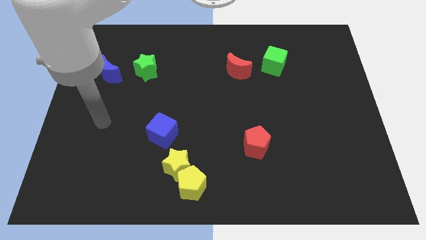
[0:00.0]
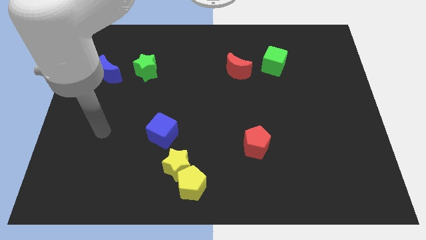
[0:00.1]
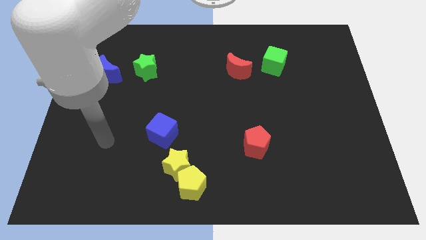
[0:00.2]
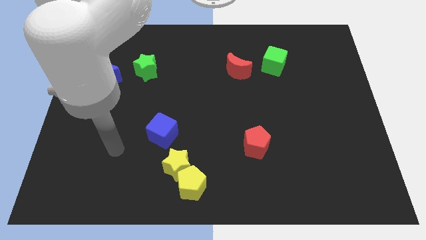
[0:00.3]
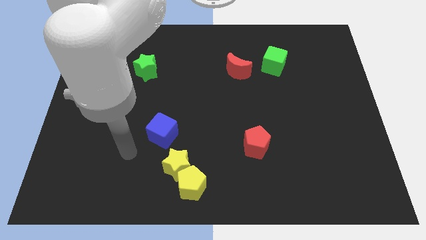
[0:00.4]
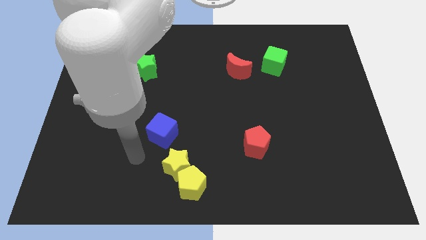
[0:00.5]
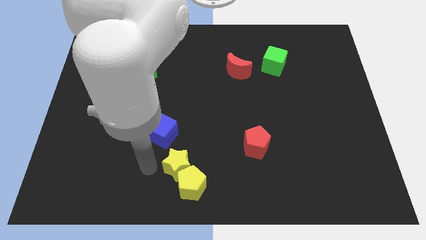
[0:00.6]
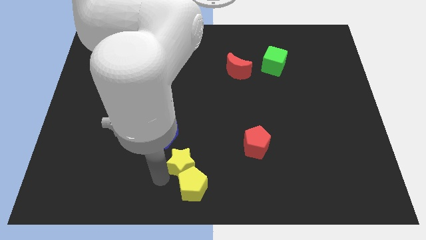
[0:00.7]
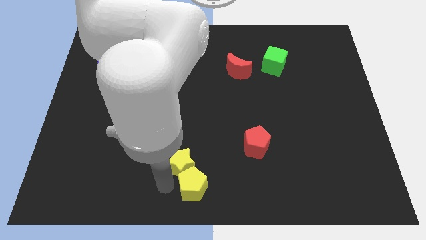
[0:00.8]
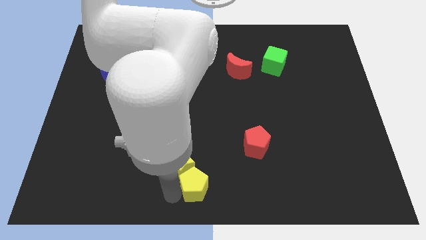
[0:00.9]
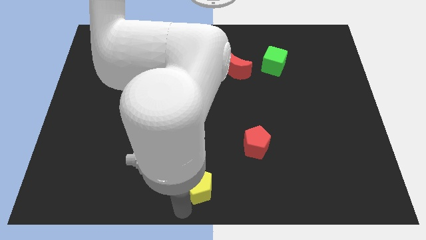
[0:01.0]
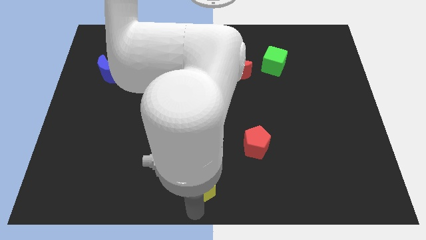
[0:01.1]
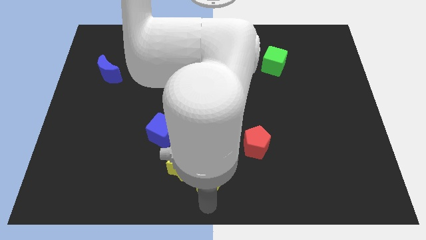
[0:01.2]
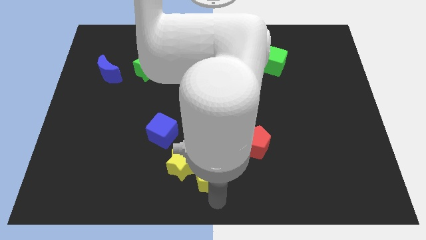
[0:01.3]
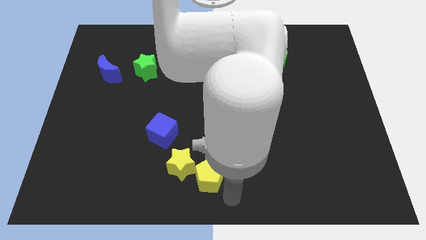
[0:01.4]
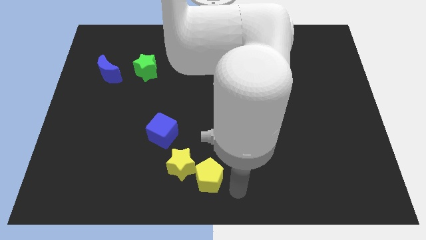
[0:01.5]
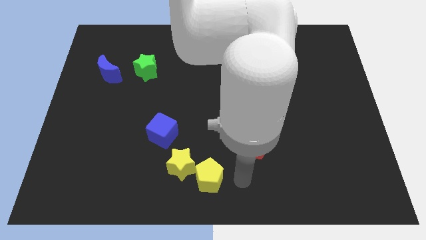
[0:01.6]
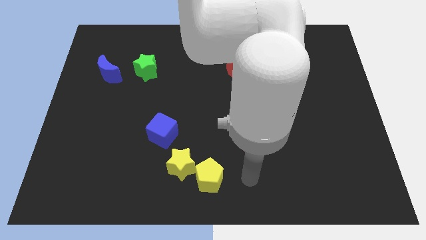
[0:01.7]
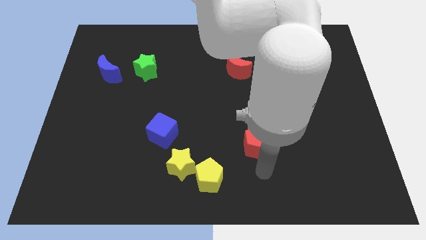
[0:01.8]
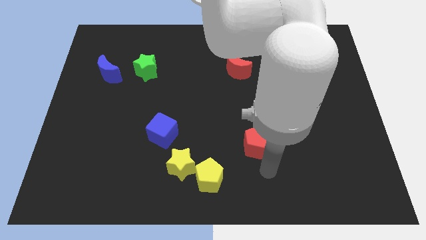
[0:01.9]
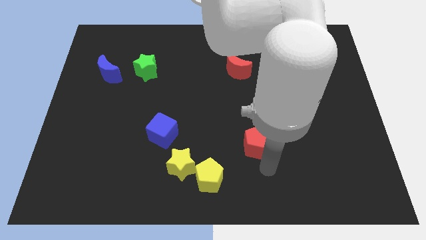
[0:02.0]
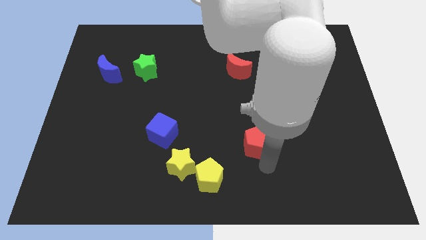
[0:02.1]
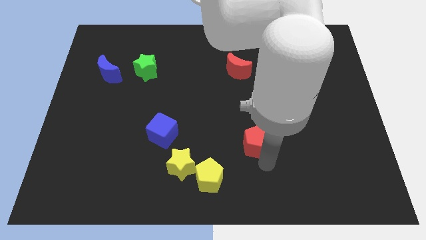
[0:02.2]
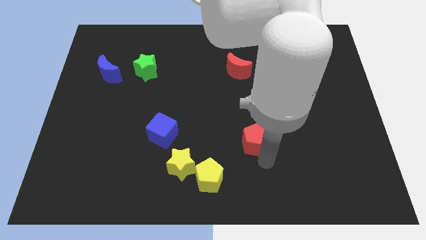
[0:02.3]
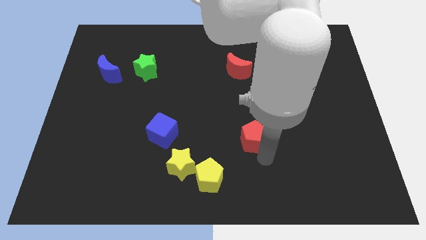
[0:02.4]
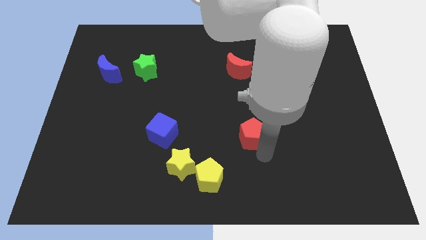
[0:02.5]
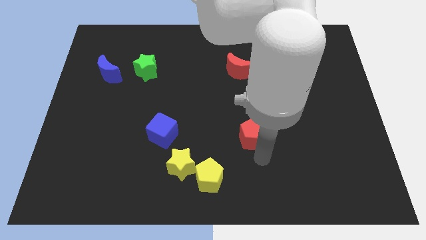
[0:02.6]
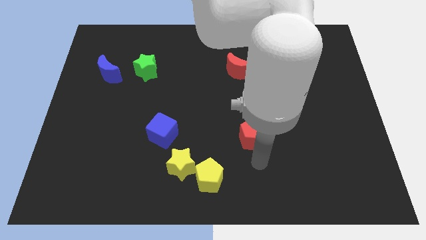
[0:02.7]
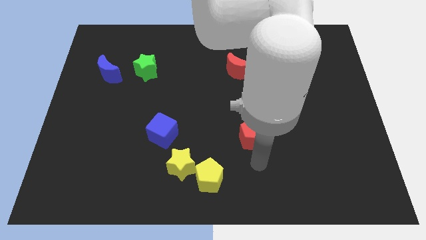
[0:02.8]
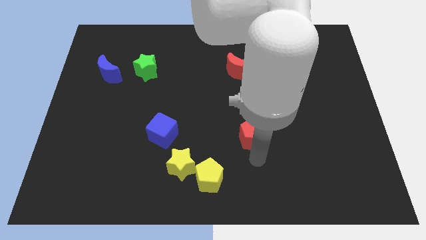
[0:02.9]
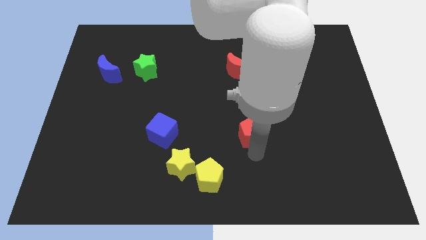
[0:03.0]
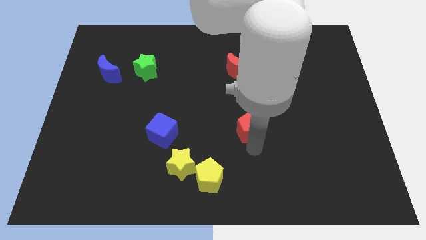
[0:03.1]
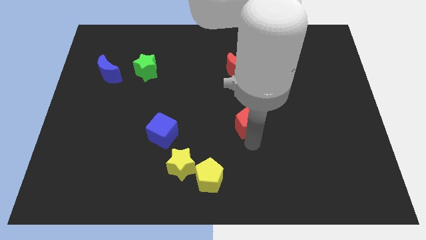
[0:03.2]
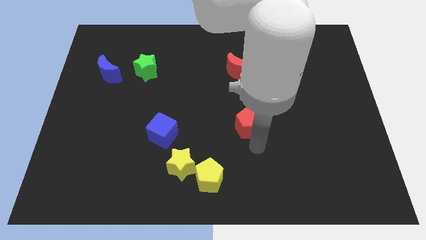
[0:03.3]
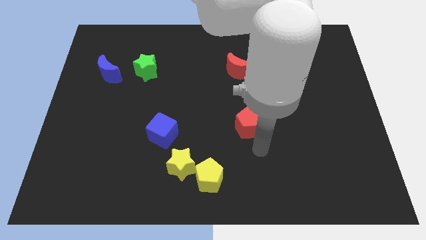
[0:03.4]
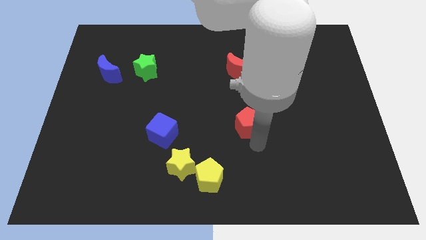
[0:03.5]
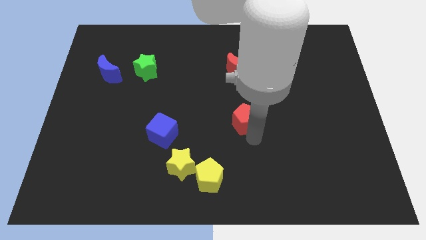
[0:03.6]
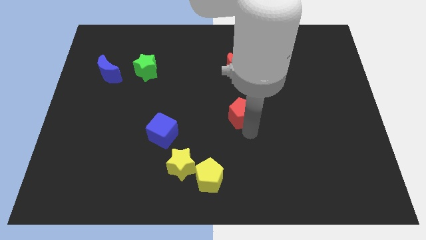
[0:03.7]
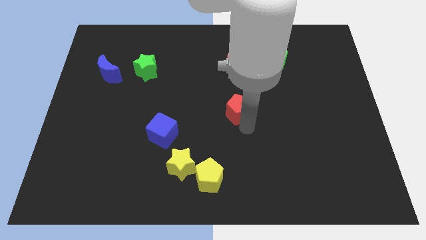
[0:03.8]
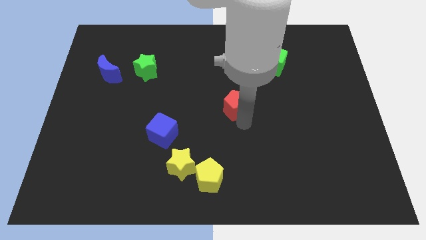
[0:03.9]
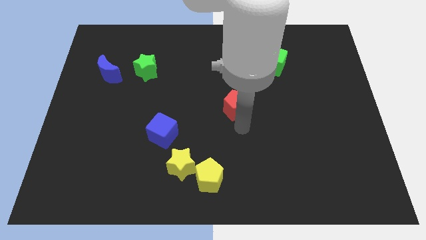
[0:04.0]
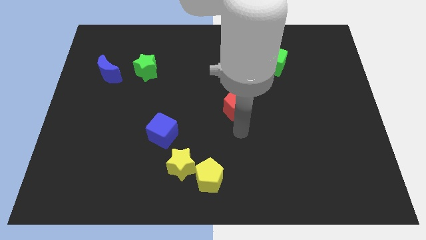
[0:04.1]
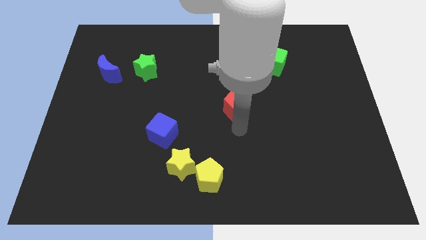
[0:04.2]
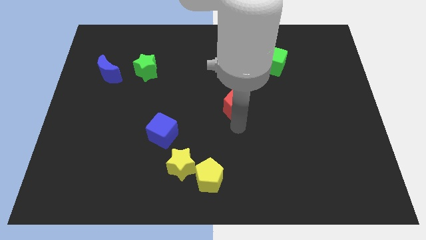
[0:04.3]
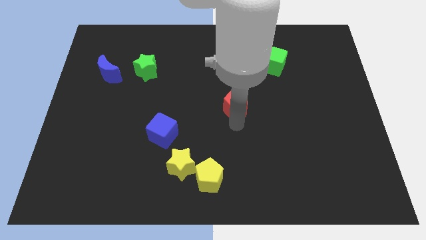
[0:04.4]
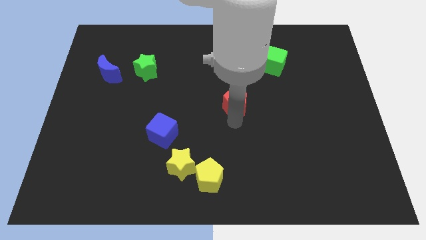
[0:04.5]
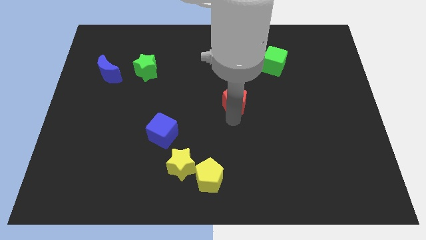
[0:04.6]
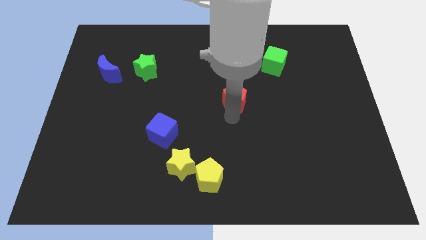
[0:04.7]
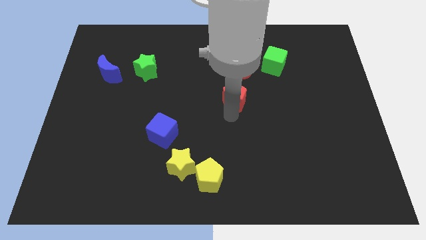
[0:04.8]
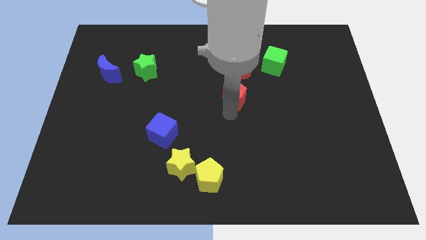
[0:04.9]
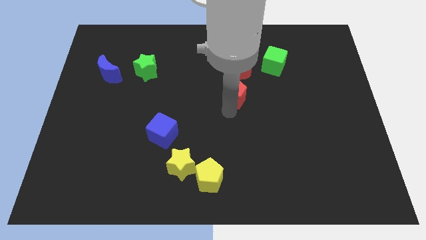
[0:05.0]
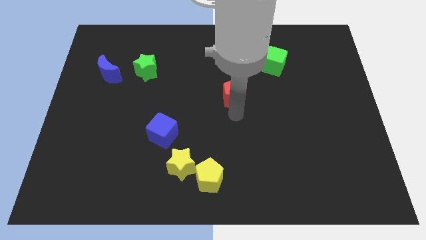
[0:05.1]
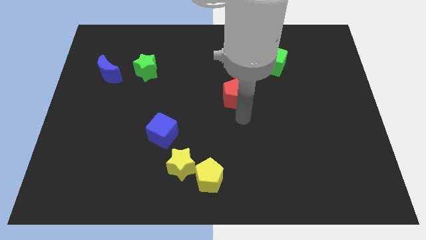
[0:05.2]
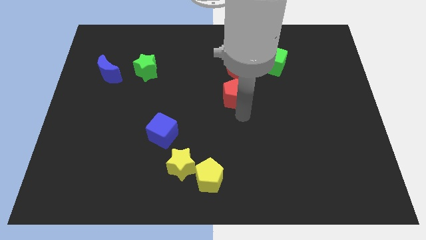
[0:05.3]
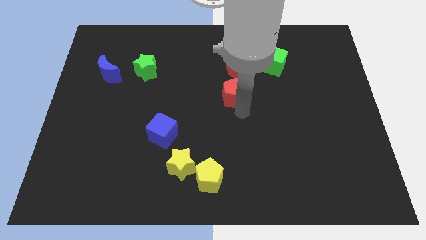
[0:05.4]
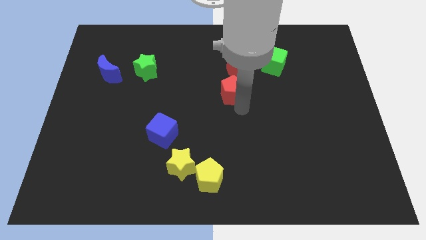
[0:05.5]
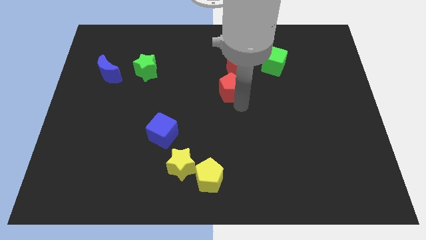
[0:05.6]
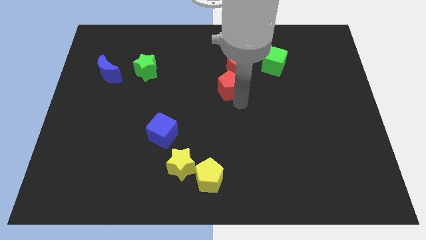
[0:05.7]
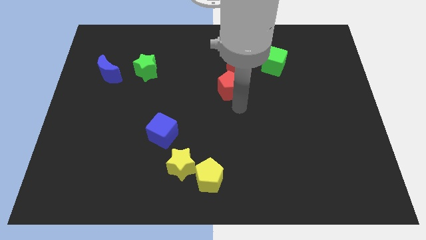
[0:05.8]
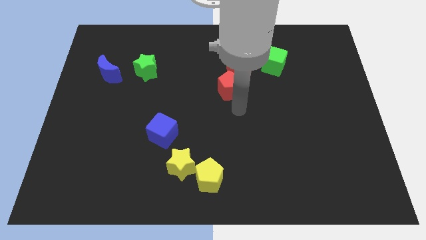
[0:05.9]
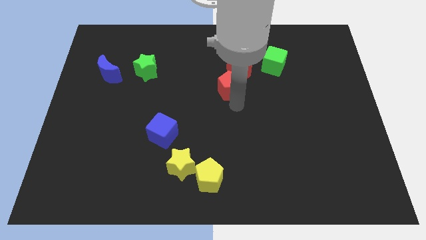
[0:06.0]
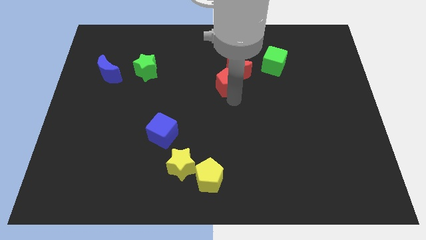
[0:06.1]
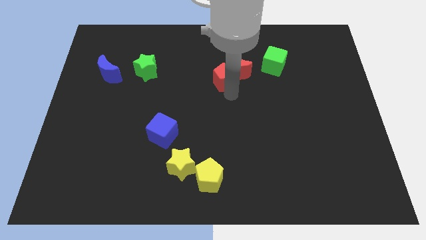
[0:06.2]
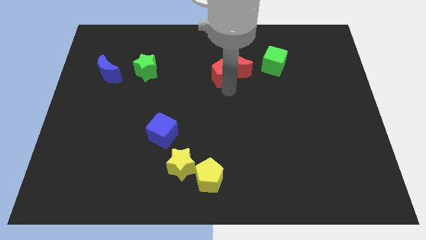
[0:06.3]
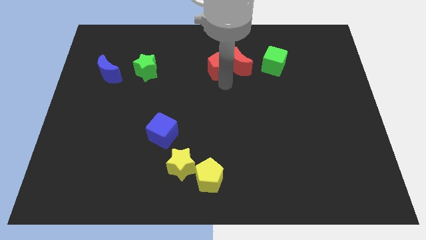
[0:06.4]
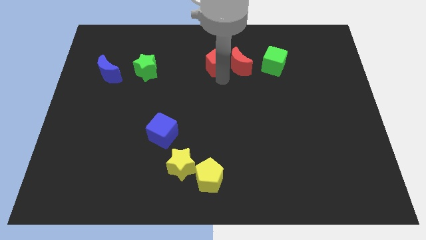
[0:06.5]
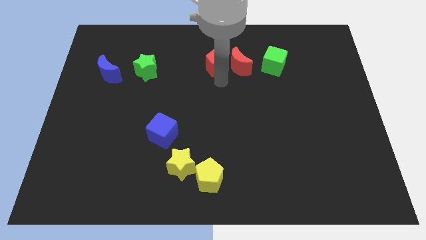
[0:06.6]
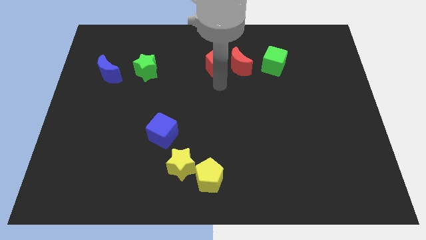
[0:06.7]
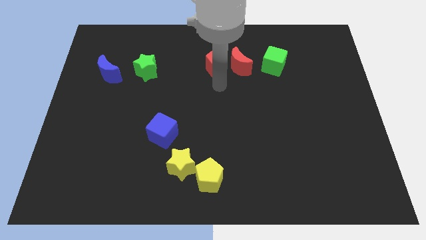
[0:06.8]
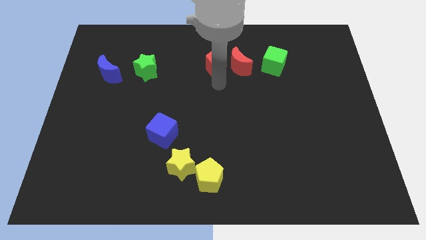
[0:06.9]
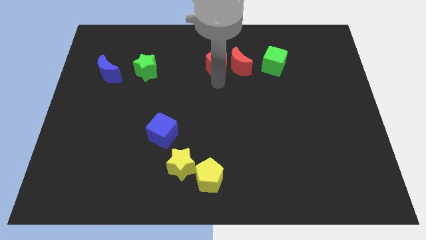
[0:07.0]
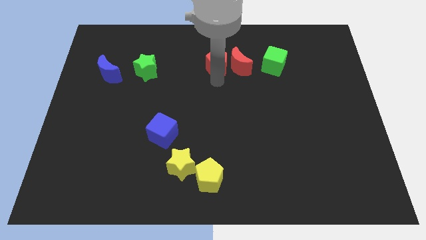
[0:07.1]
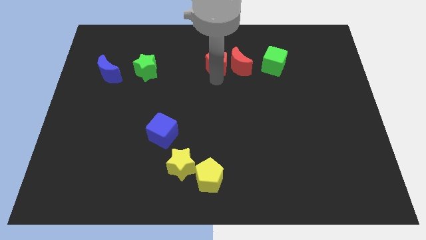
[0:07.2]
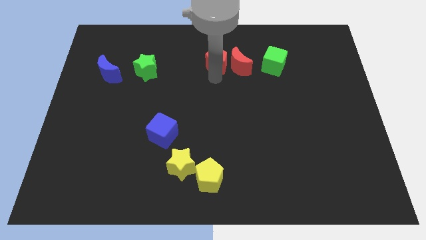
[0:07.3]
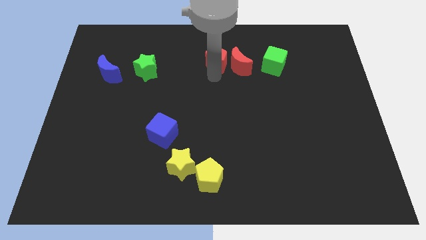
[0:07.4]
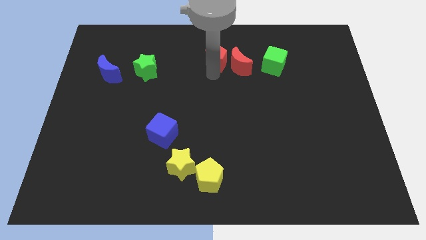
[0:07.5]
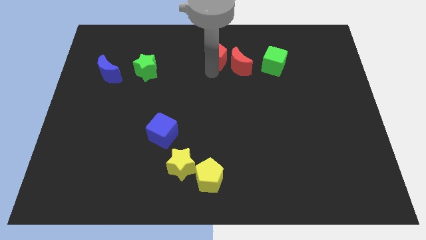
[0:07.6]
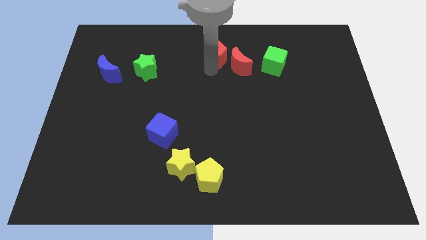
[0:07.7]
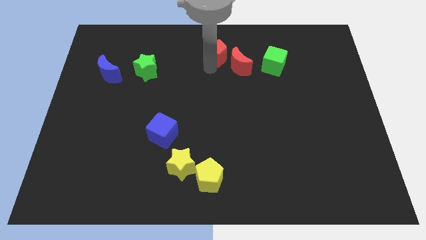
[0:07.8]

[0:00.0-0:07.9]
slide the red pentagon to the towards your base
